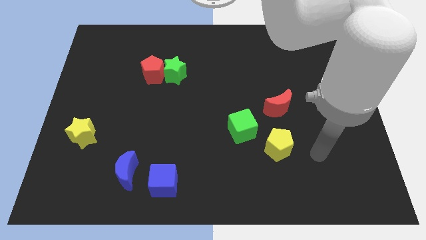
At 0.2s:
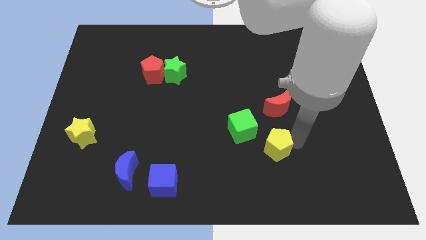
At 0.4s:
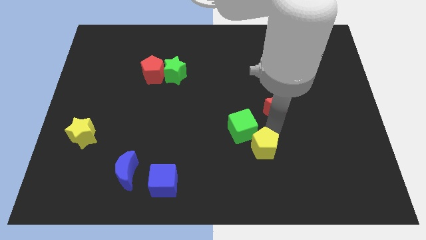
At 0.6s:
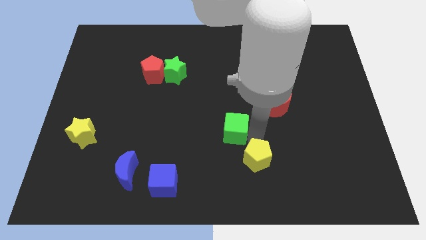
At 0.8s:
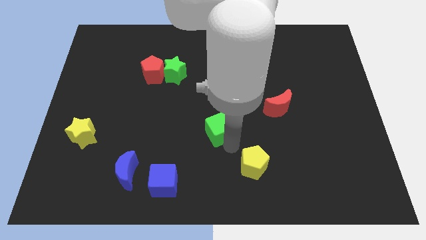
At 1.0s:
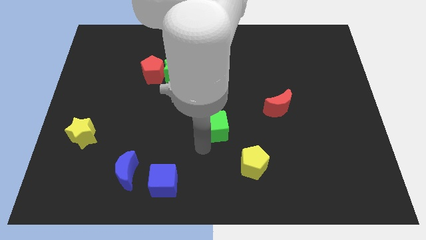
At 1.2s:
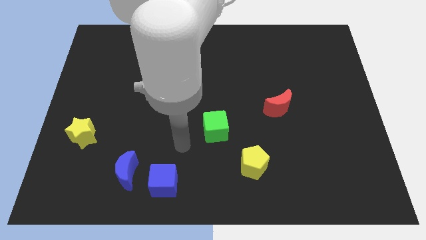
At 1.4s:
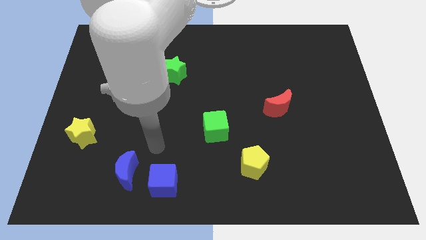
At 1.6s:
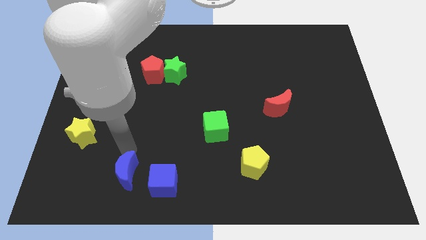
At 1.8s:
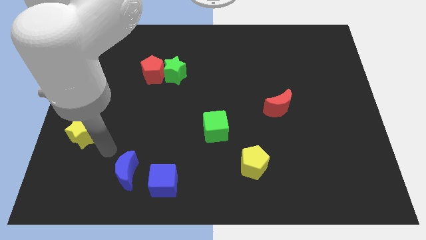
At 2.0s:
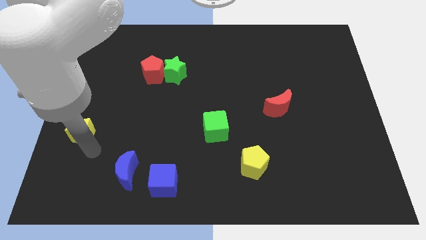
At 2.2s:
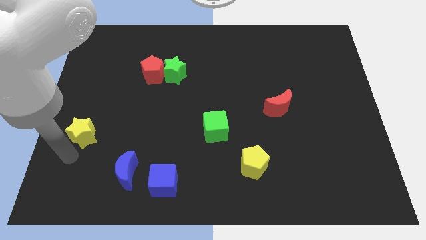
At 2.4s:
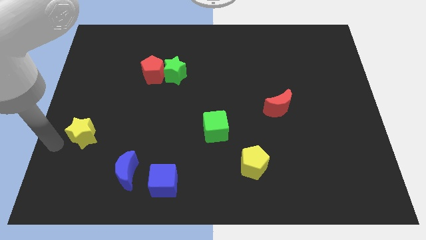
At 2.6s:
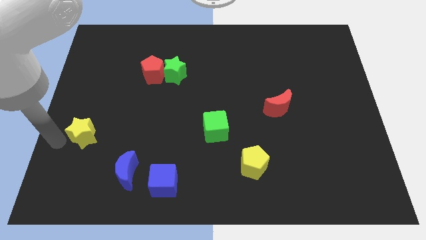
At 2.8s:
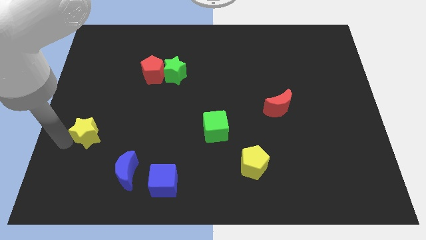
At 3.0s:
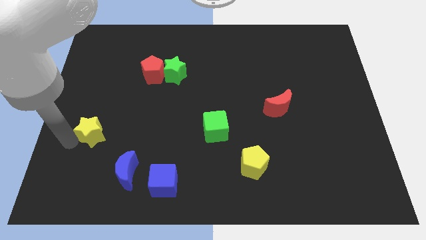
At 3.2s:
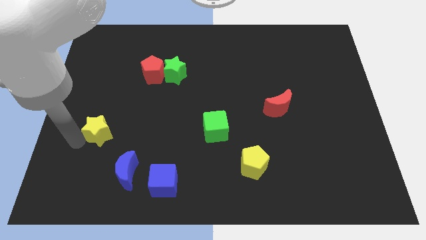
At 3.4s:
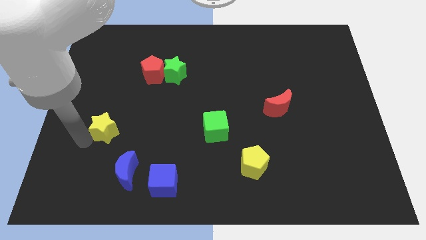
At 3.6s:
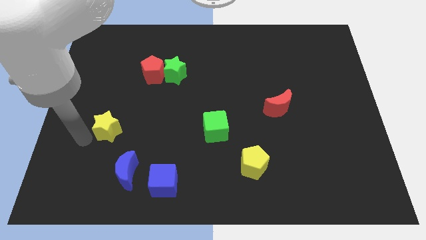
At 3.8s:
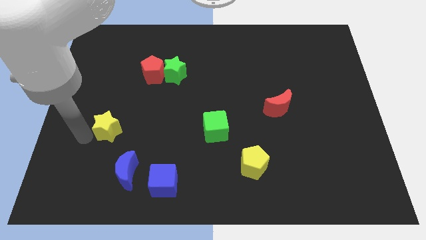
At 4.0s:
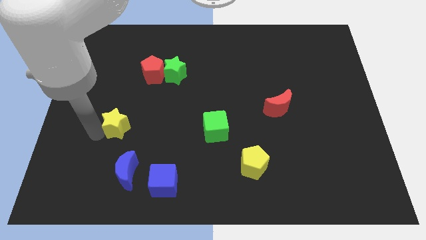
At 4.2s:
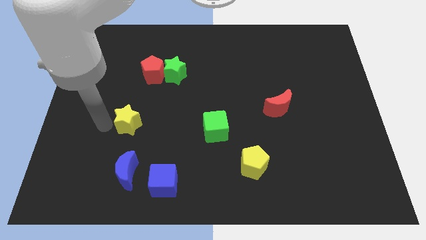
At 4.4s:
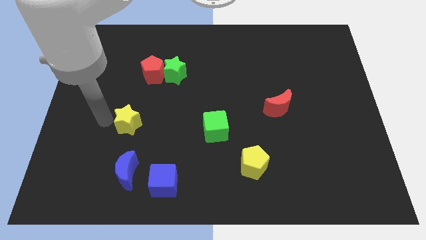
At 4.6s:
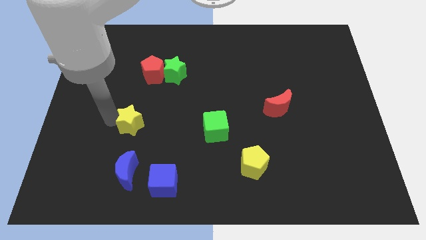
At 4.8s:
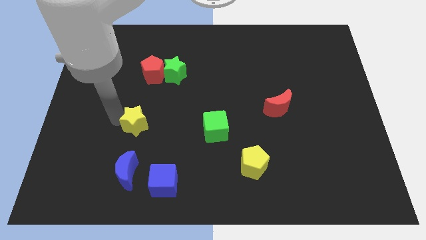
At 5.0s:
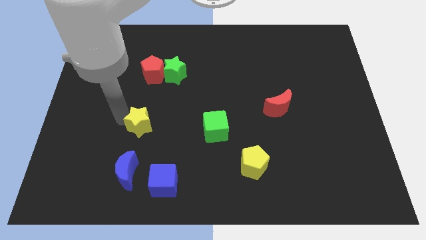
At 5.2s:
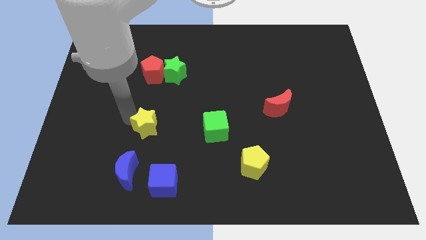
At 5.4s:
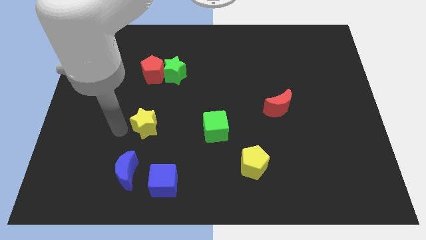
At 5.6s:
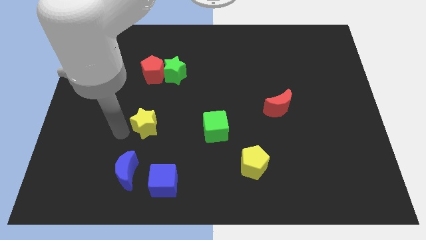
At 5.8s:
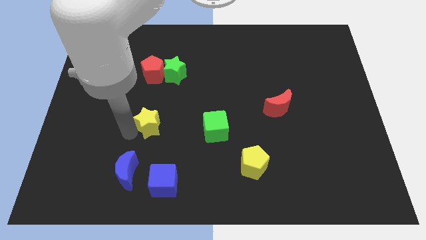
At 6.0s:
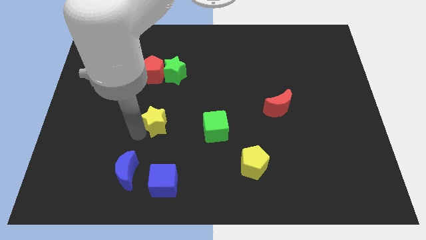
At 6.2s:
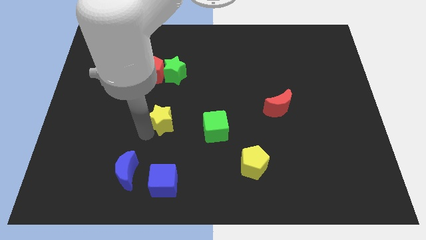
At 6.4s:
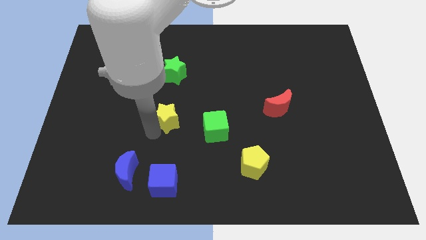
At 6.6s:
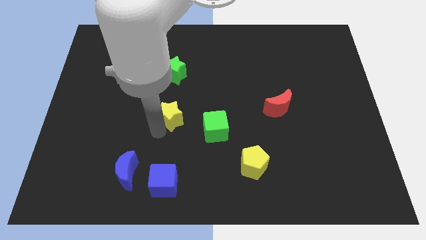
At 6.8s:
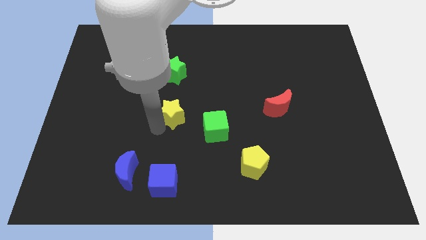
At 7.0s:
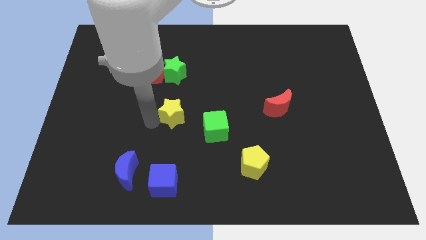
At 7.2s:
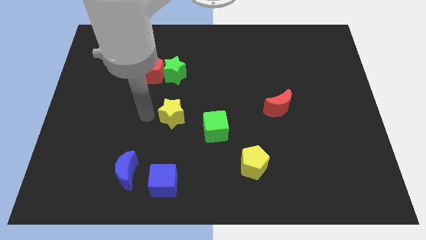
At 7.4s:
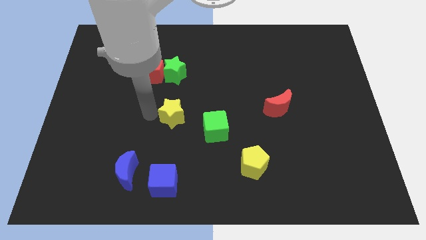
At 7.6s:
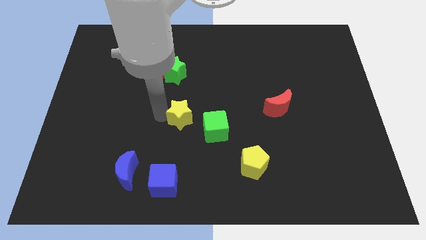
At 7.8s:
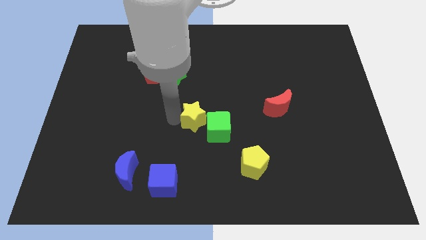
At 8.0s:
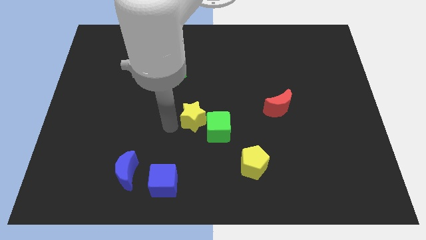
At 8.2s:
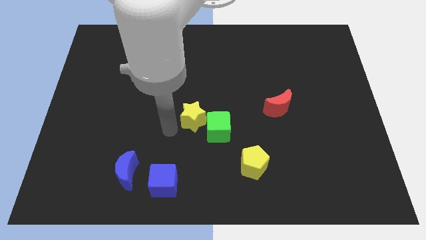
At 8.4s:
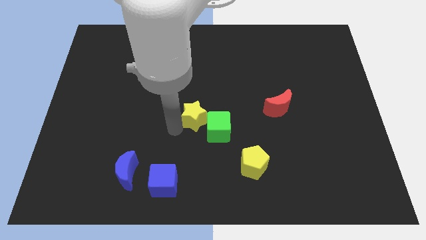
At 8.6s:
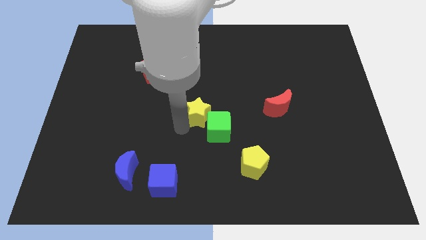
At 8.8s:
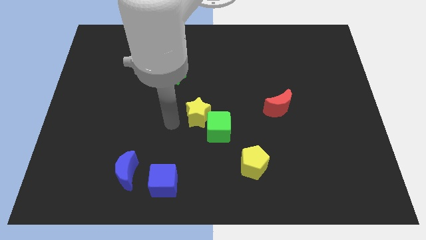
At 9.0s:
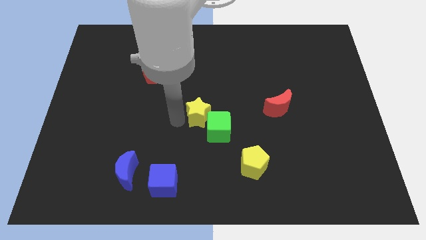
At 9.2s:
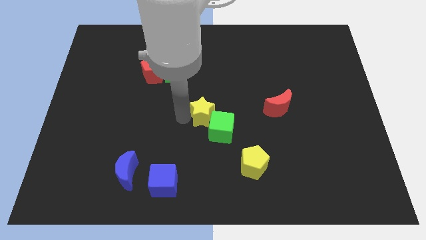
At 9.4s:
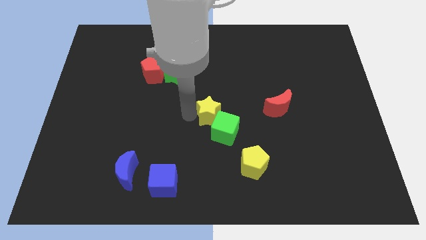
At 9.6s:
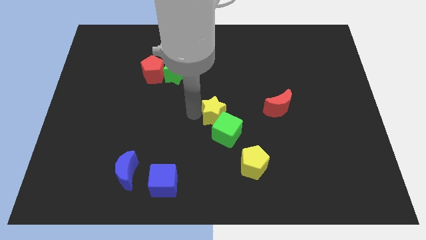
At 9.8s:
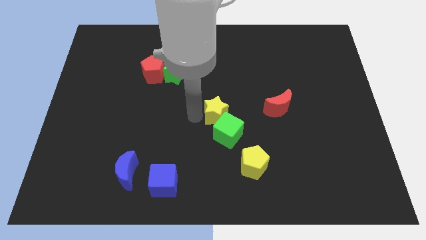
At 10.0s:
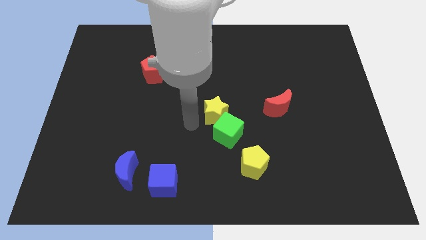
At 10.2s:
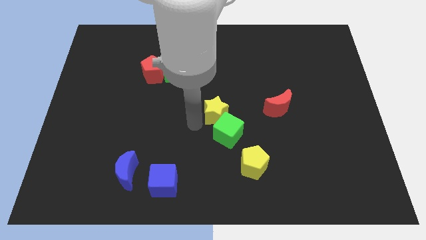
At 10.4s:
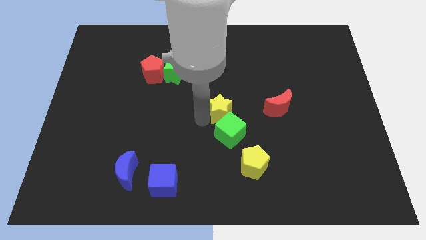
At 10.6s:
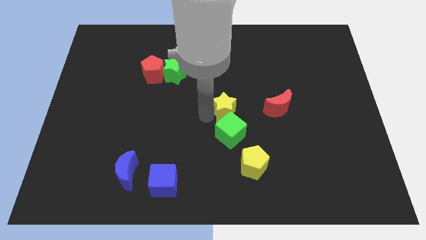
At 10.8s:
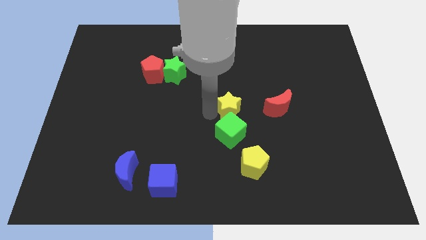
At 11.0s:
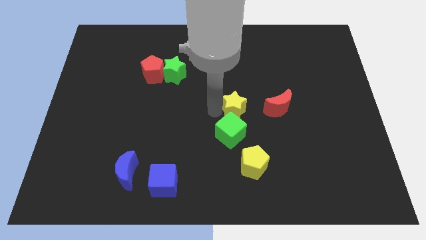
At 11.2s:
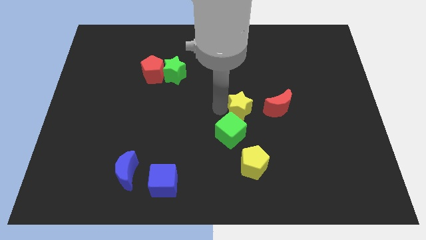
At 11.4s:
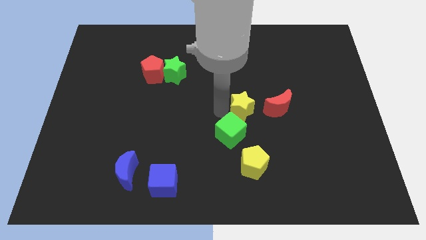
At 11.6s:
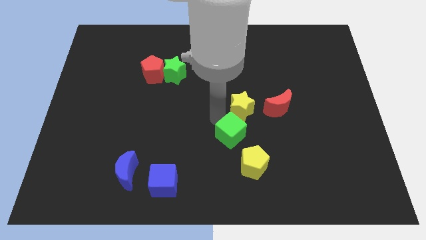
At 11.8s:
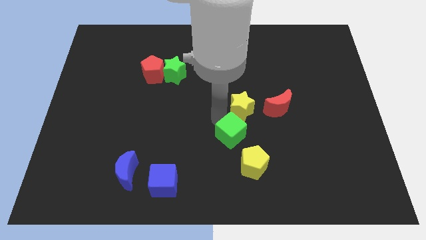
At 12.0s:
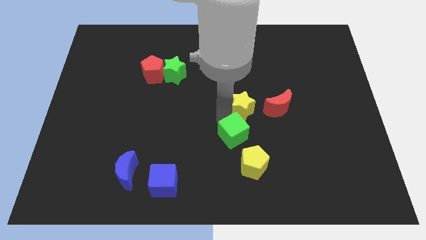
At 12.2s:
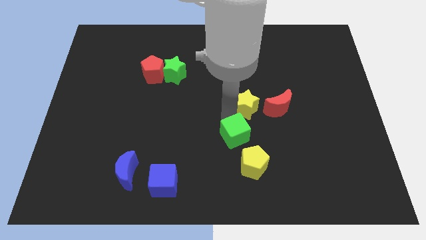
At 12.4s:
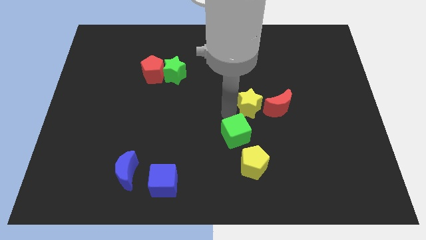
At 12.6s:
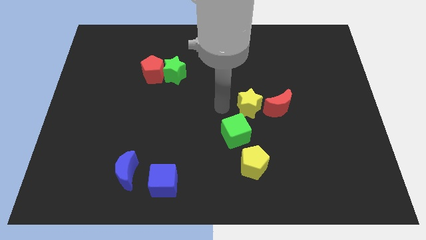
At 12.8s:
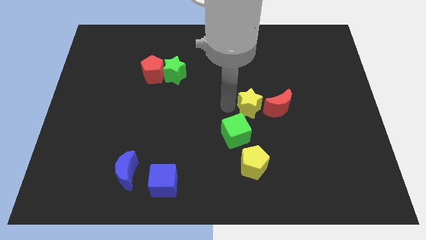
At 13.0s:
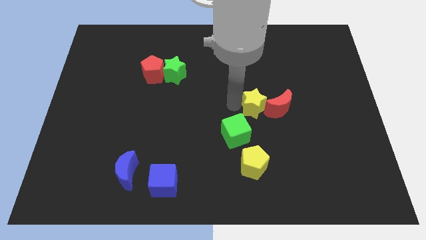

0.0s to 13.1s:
move the yellow star next to the red moon
